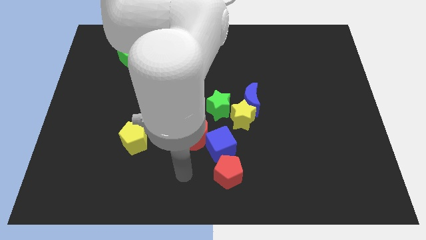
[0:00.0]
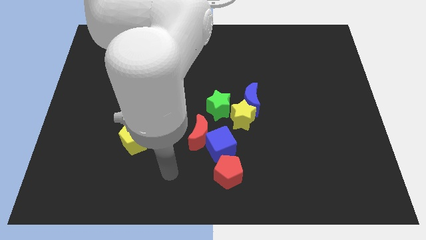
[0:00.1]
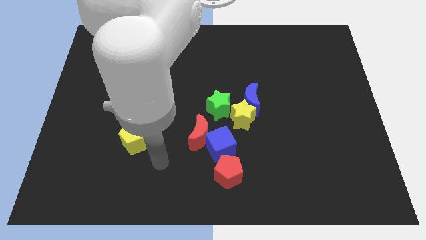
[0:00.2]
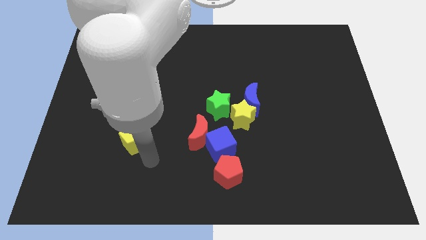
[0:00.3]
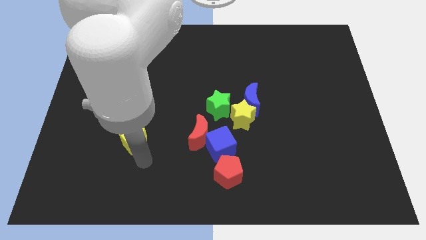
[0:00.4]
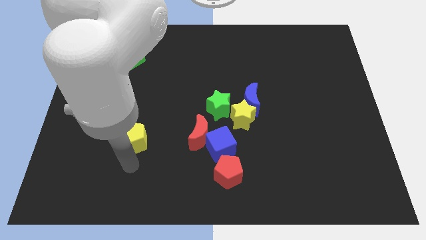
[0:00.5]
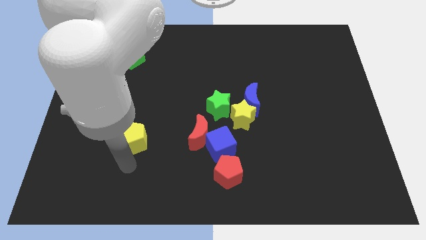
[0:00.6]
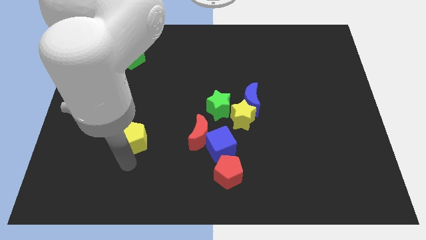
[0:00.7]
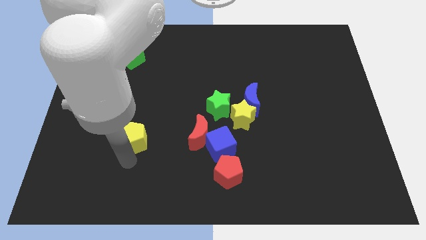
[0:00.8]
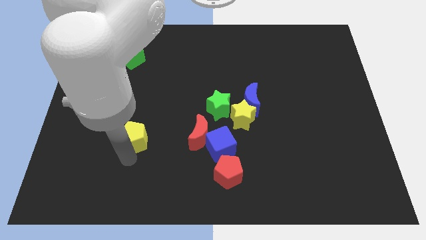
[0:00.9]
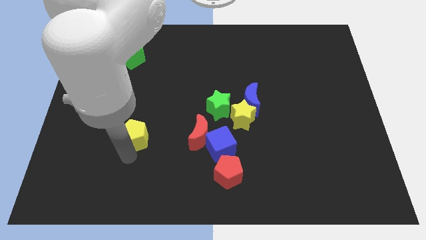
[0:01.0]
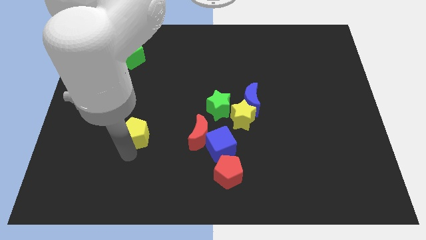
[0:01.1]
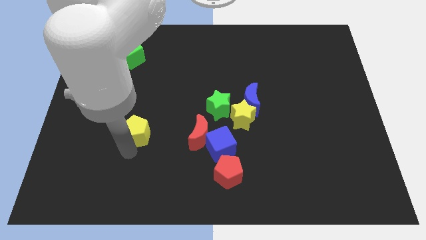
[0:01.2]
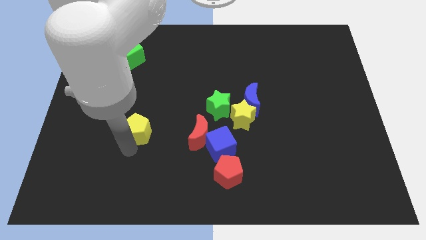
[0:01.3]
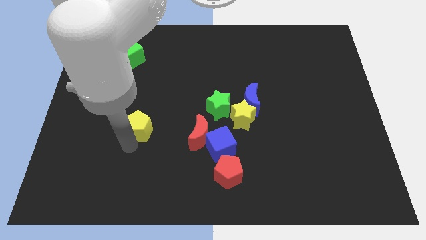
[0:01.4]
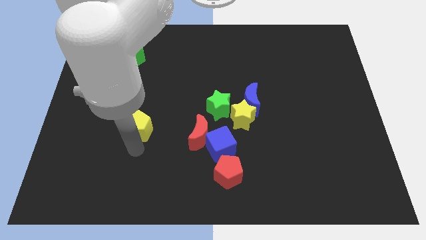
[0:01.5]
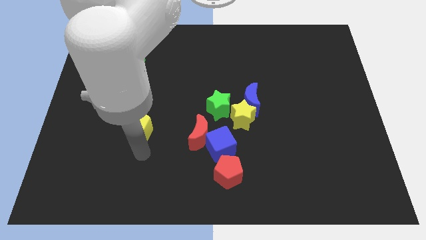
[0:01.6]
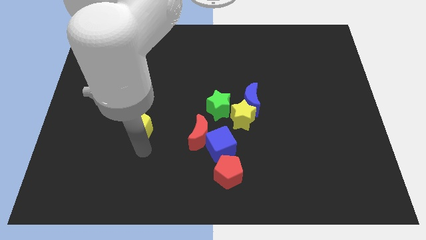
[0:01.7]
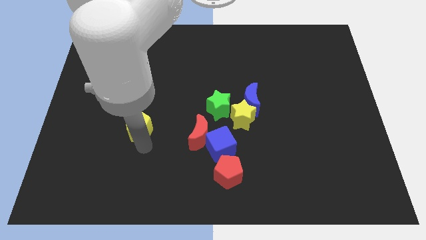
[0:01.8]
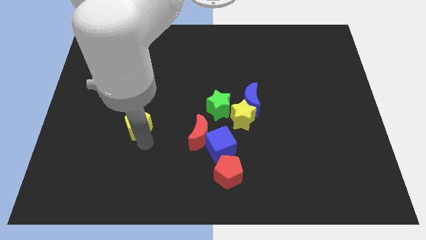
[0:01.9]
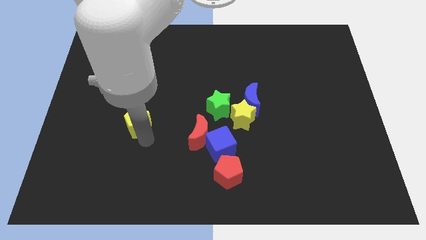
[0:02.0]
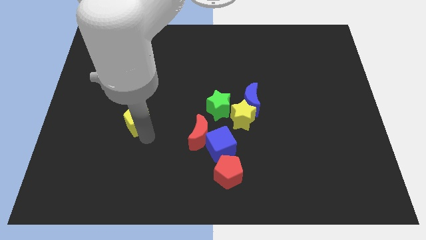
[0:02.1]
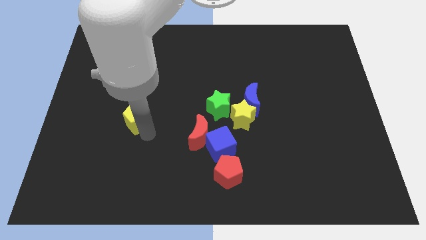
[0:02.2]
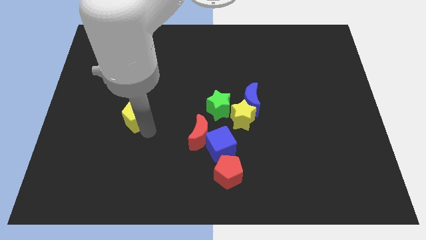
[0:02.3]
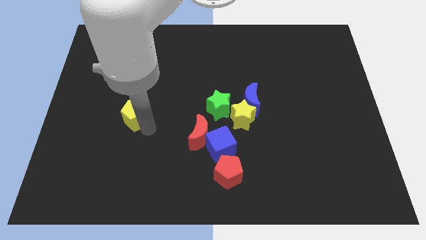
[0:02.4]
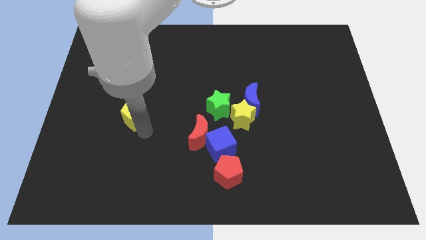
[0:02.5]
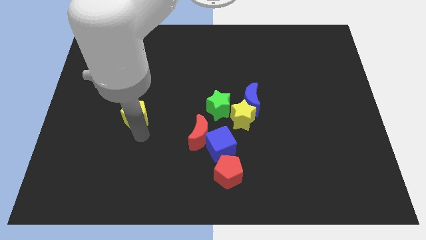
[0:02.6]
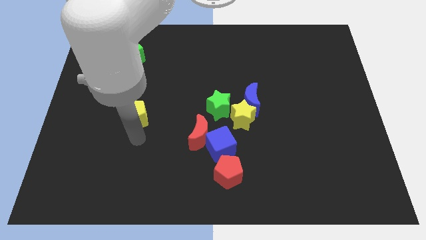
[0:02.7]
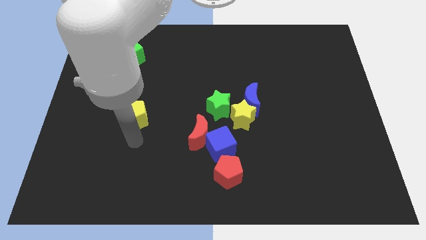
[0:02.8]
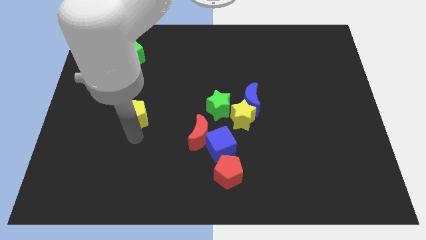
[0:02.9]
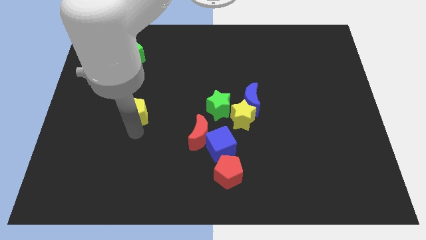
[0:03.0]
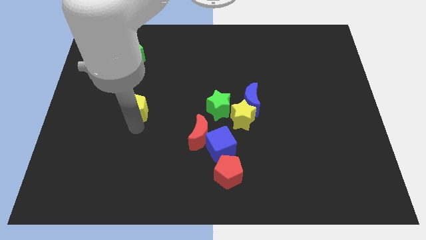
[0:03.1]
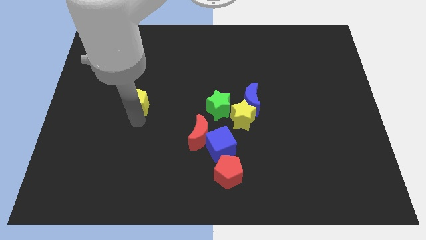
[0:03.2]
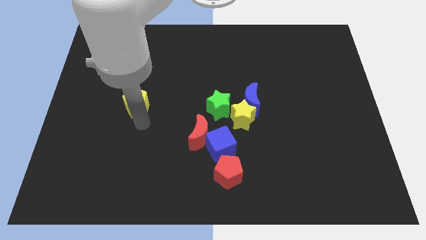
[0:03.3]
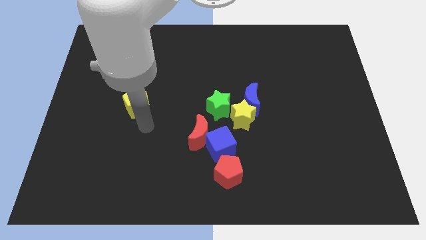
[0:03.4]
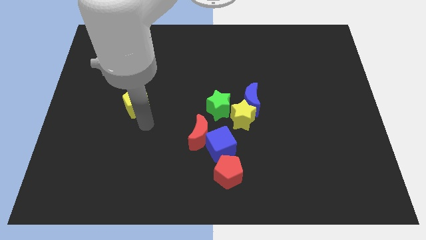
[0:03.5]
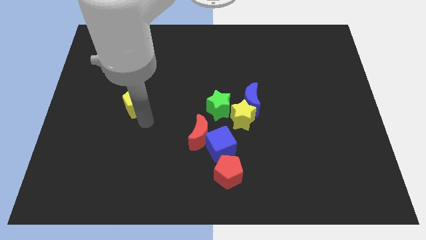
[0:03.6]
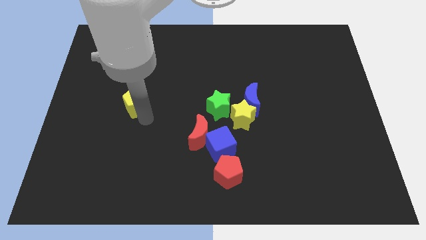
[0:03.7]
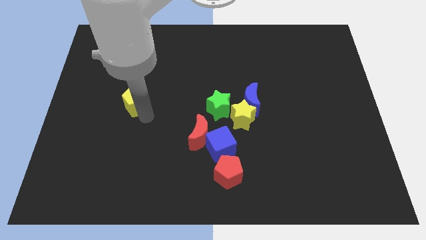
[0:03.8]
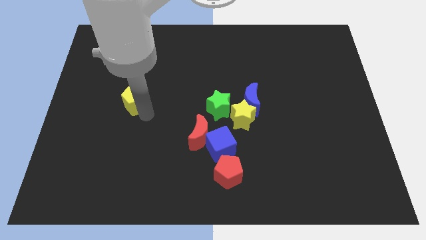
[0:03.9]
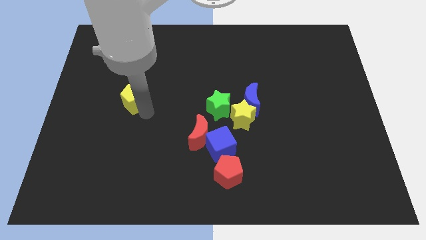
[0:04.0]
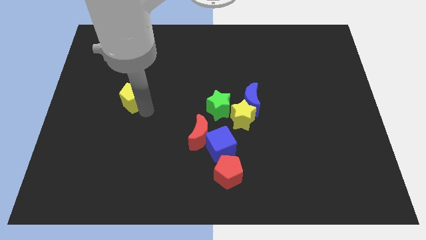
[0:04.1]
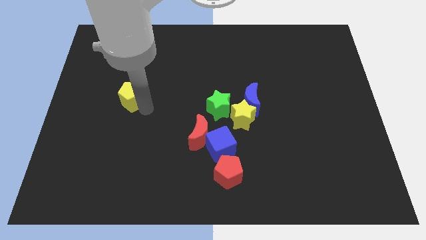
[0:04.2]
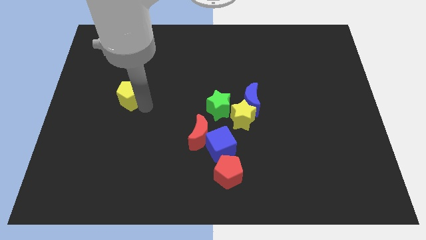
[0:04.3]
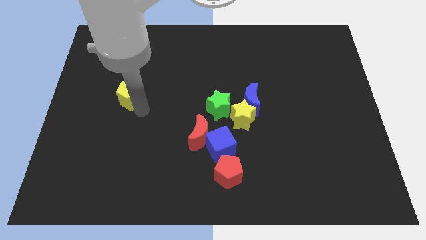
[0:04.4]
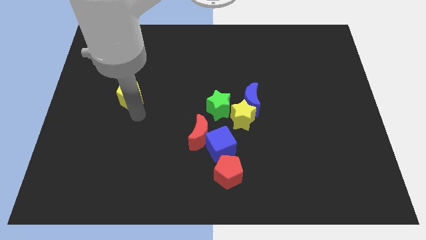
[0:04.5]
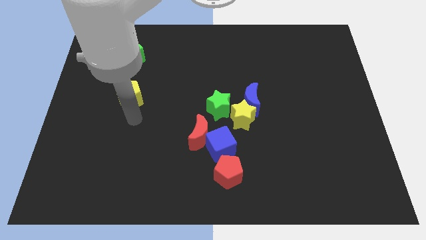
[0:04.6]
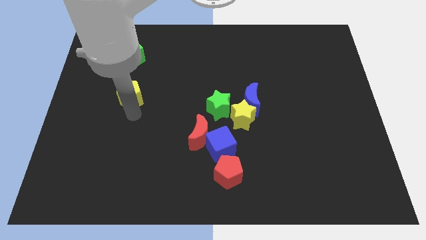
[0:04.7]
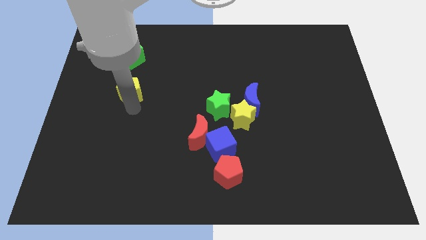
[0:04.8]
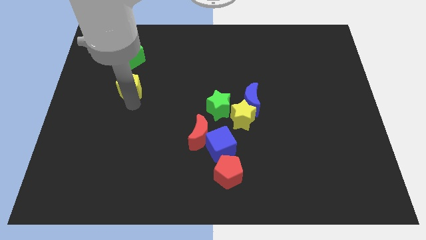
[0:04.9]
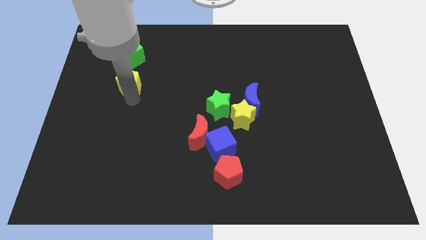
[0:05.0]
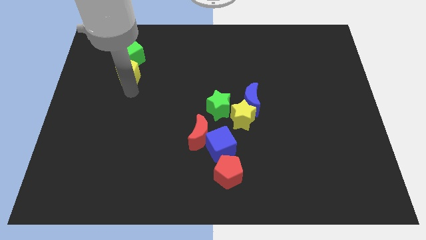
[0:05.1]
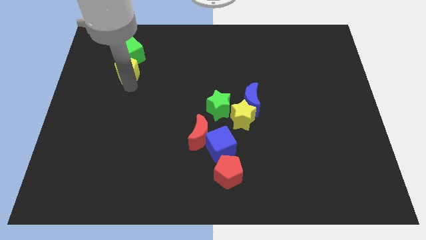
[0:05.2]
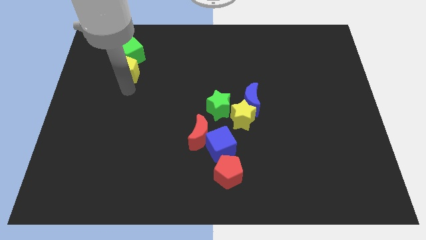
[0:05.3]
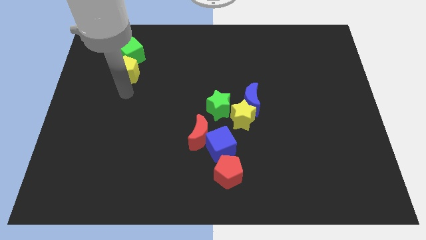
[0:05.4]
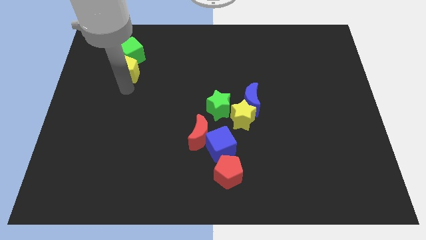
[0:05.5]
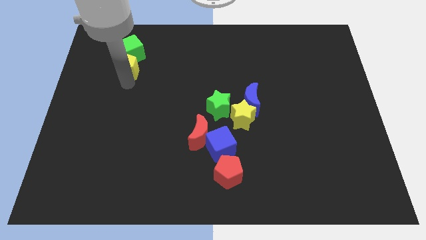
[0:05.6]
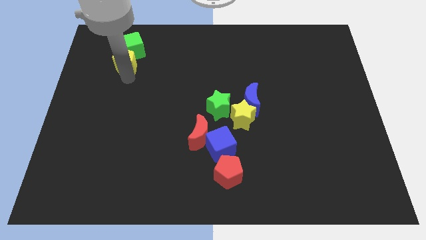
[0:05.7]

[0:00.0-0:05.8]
move the yellow pentagon next to the green cube

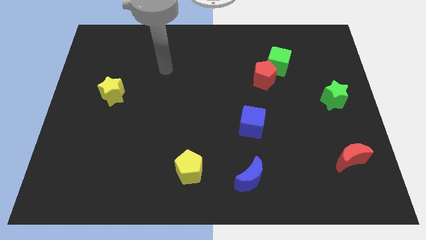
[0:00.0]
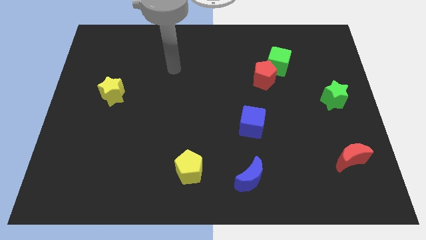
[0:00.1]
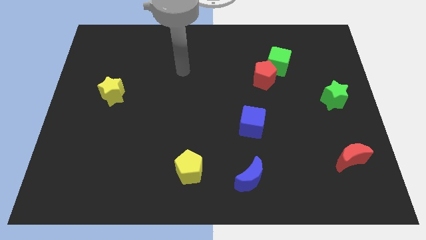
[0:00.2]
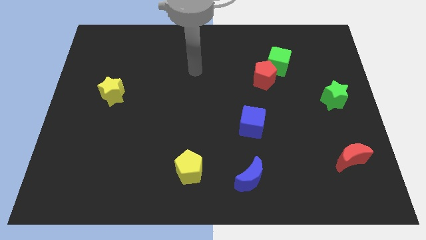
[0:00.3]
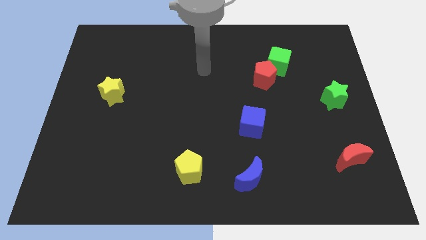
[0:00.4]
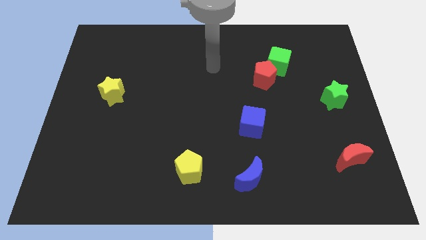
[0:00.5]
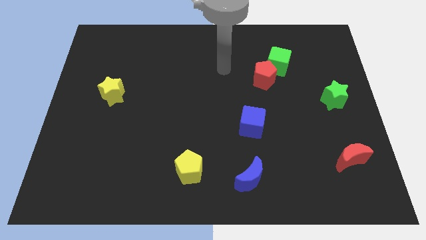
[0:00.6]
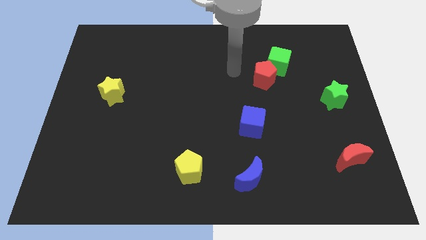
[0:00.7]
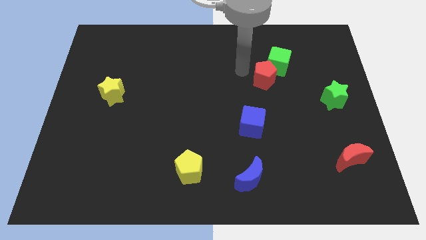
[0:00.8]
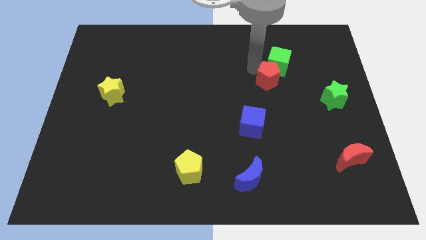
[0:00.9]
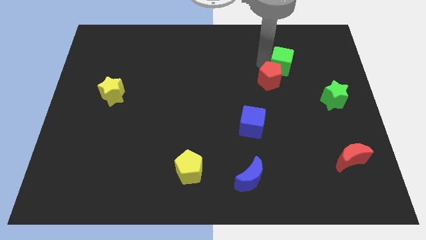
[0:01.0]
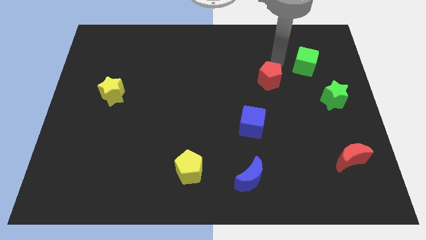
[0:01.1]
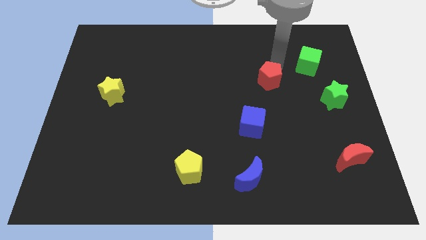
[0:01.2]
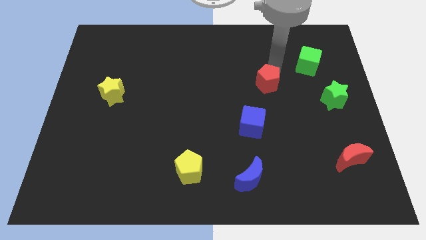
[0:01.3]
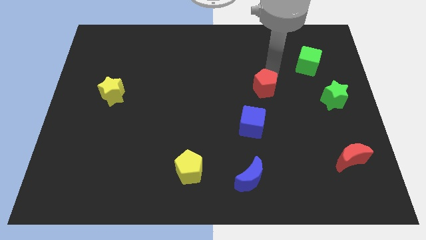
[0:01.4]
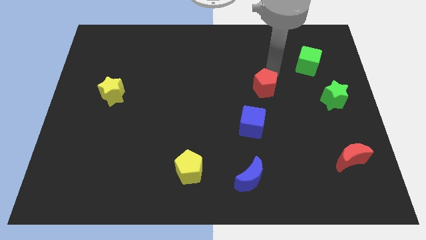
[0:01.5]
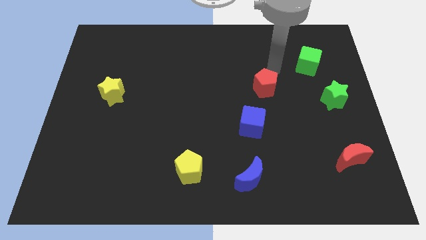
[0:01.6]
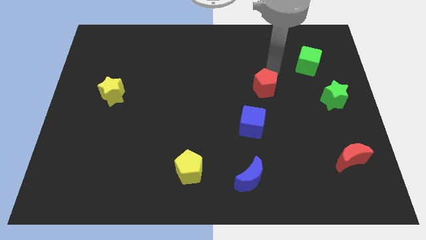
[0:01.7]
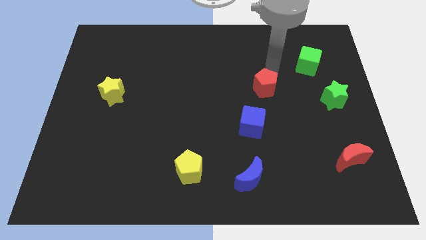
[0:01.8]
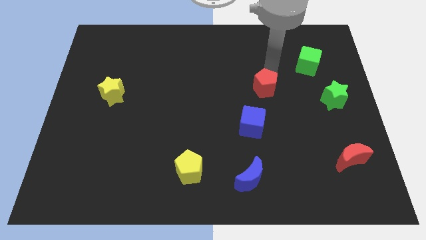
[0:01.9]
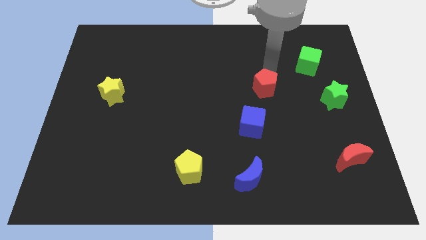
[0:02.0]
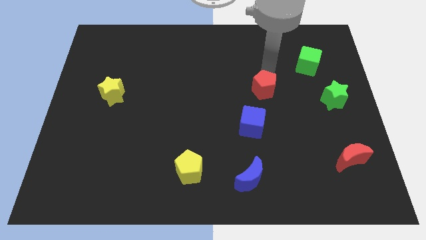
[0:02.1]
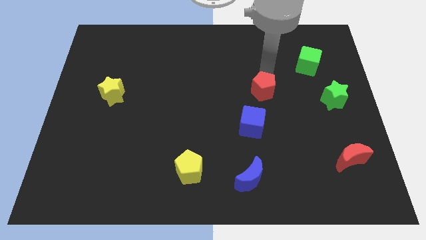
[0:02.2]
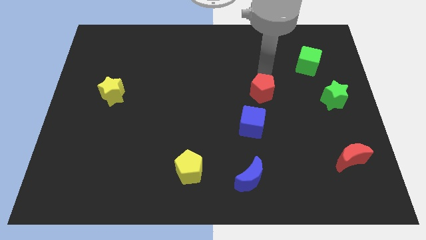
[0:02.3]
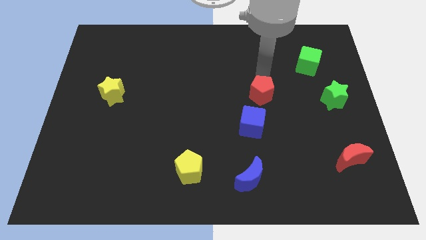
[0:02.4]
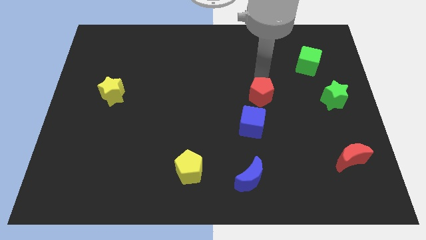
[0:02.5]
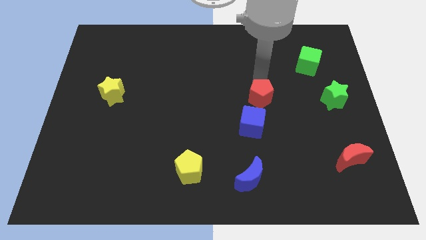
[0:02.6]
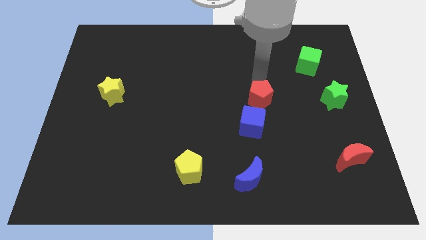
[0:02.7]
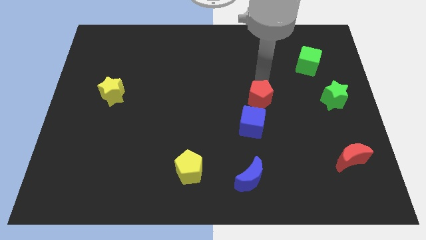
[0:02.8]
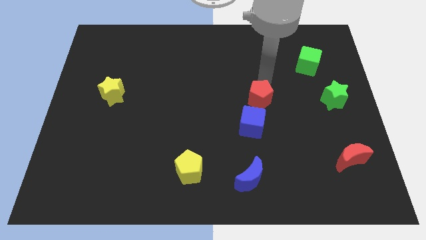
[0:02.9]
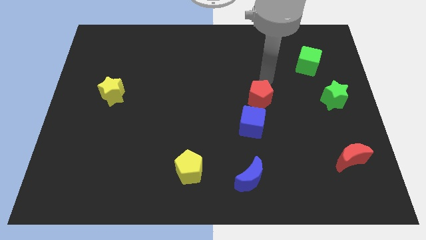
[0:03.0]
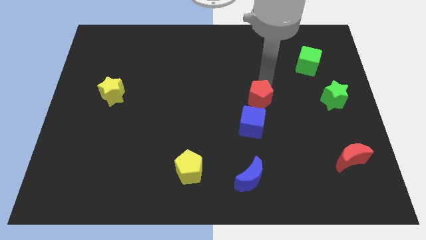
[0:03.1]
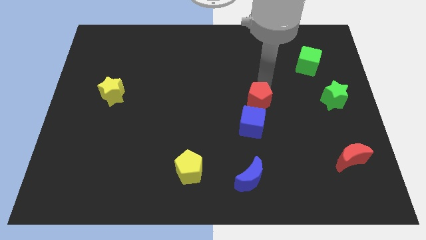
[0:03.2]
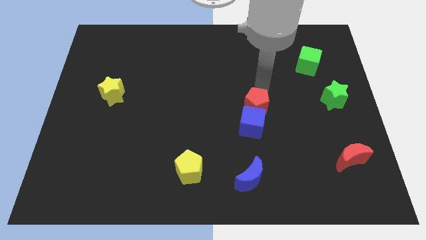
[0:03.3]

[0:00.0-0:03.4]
slide the red pentagon towards the blue cube
